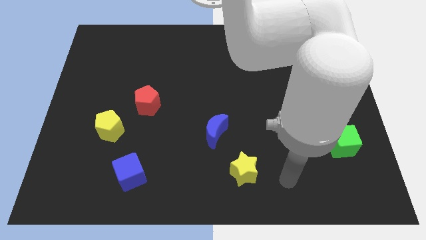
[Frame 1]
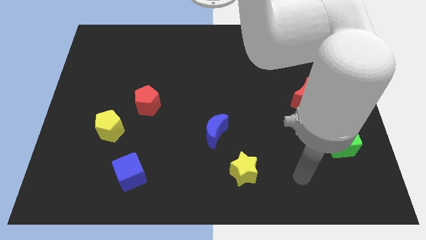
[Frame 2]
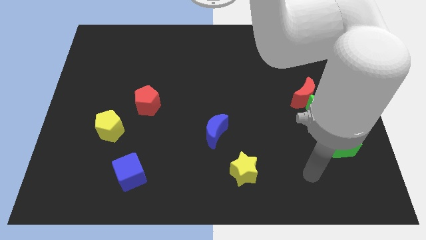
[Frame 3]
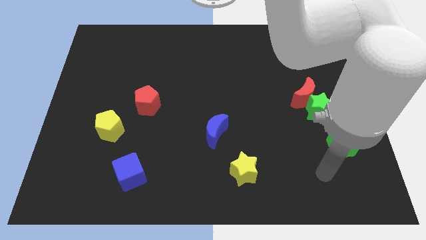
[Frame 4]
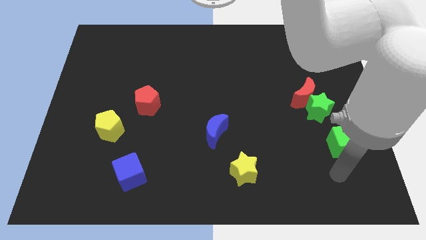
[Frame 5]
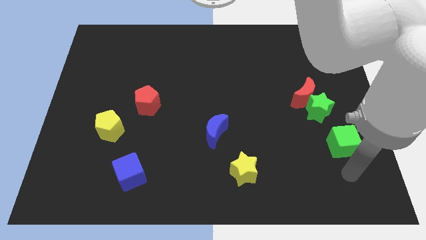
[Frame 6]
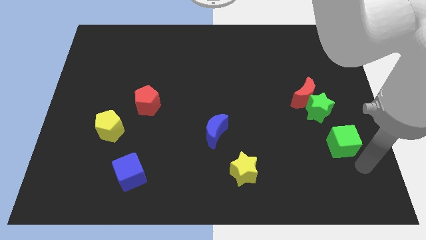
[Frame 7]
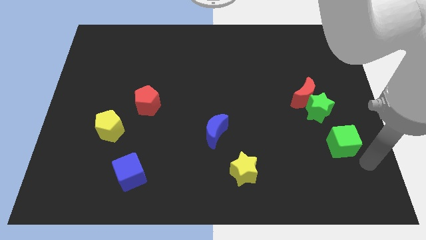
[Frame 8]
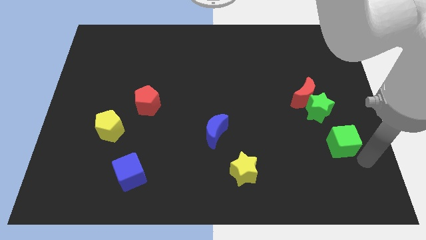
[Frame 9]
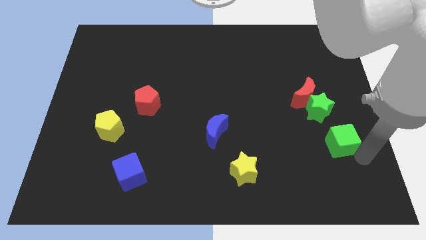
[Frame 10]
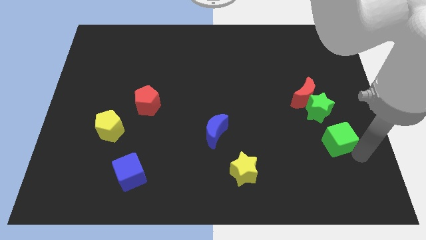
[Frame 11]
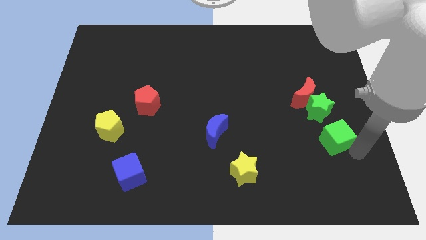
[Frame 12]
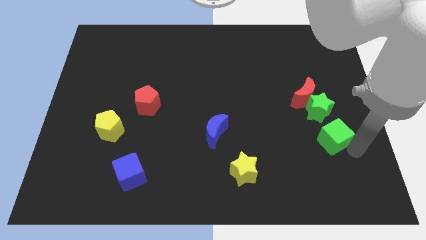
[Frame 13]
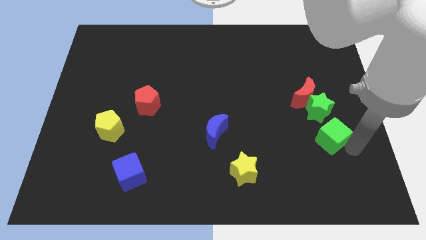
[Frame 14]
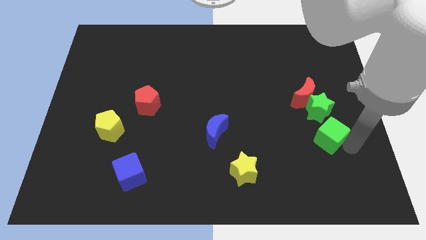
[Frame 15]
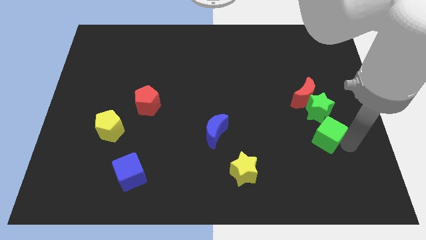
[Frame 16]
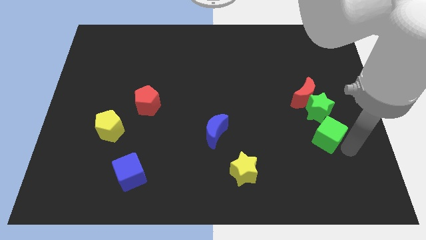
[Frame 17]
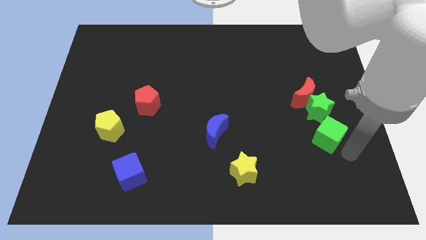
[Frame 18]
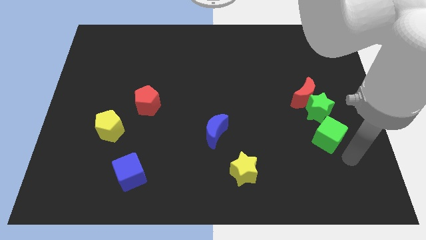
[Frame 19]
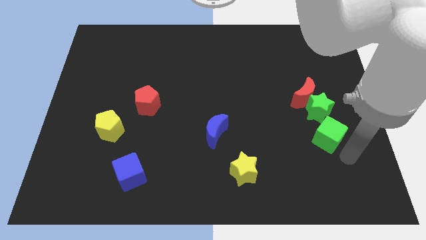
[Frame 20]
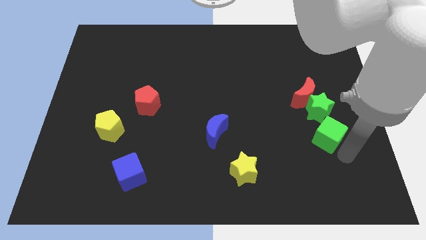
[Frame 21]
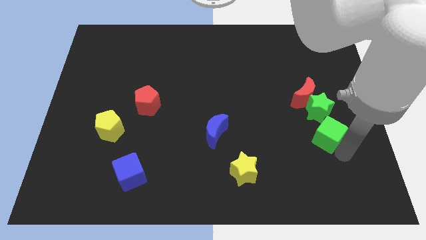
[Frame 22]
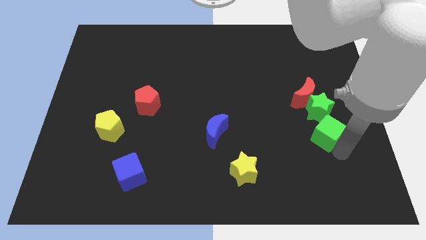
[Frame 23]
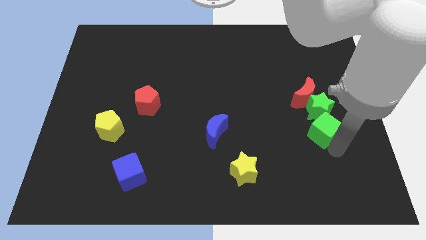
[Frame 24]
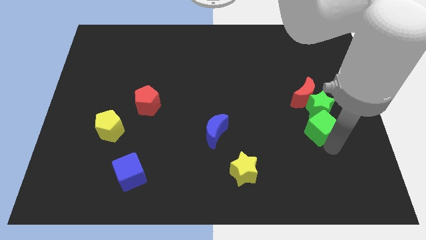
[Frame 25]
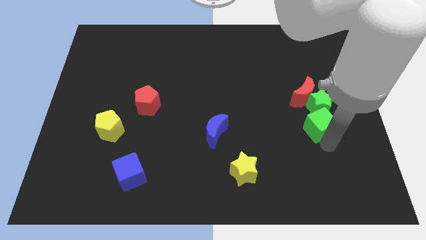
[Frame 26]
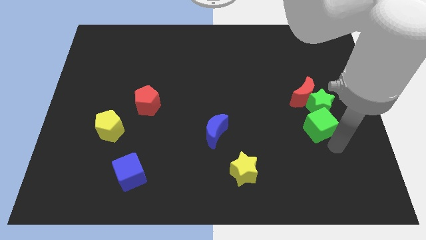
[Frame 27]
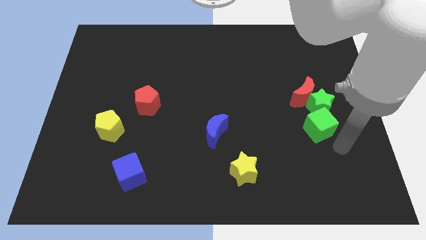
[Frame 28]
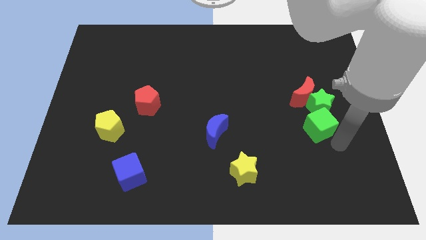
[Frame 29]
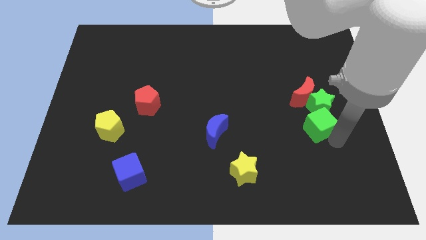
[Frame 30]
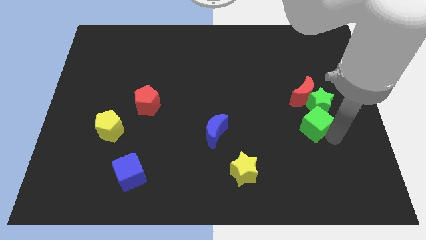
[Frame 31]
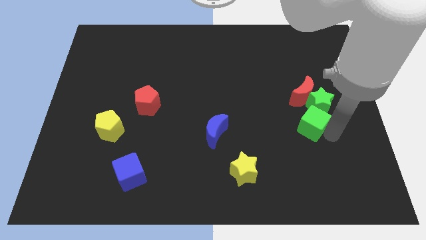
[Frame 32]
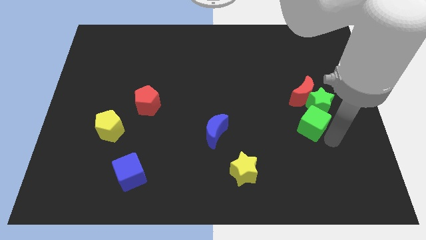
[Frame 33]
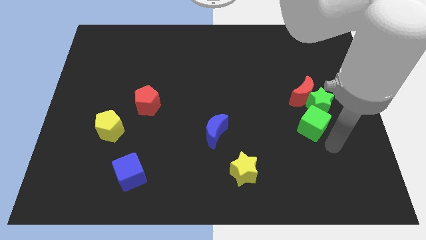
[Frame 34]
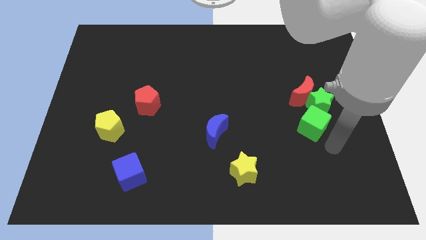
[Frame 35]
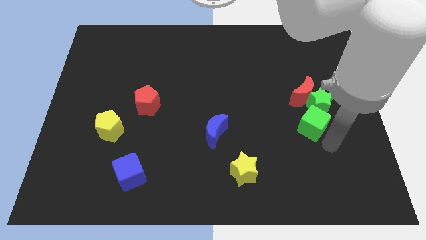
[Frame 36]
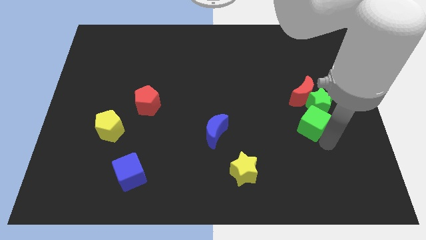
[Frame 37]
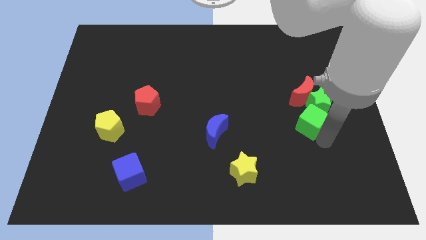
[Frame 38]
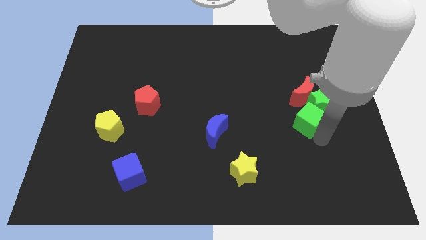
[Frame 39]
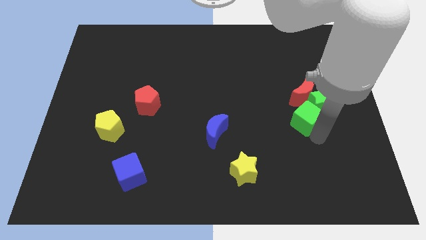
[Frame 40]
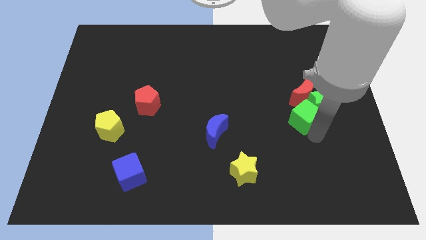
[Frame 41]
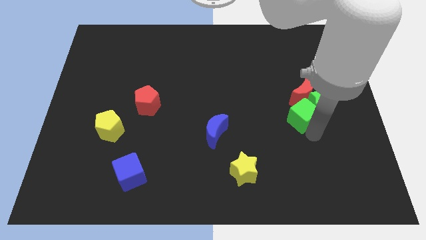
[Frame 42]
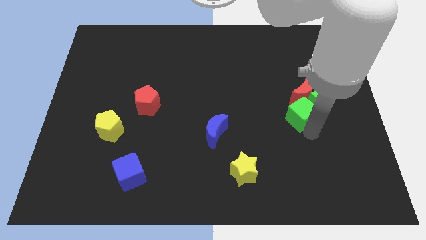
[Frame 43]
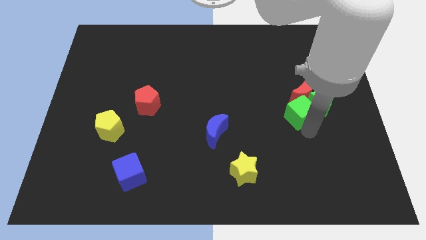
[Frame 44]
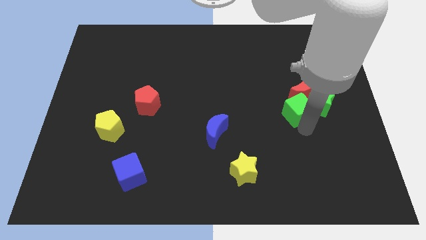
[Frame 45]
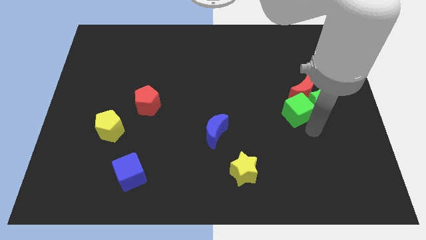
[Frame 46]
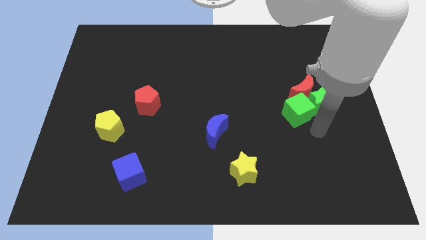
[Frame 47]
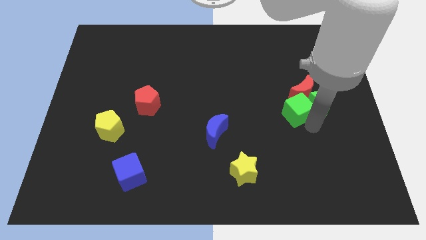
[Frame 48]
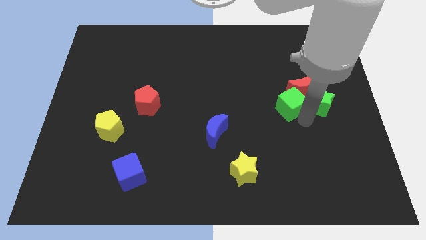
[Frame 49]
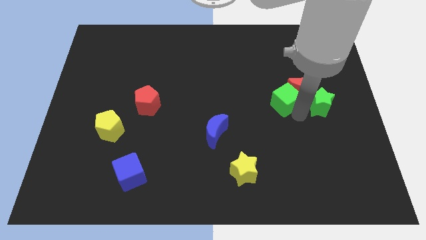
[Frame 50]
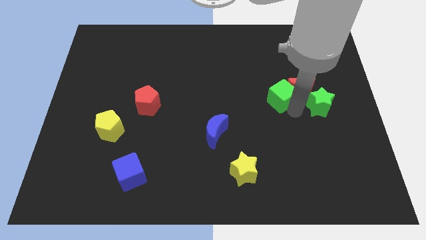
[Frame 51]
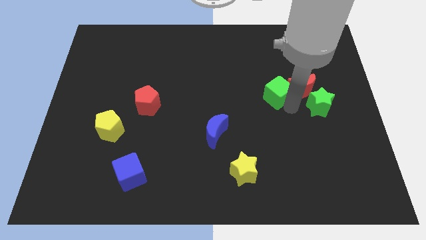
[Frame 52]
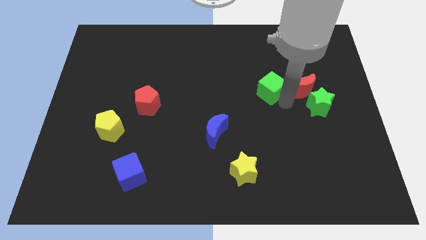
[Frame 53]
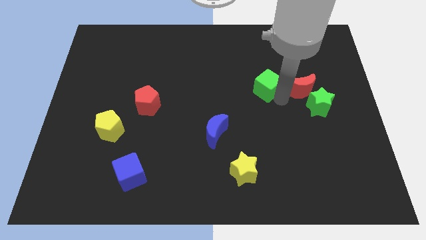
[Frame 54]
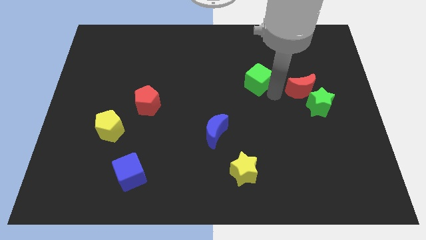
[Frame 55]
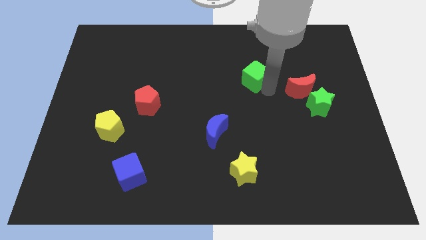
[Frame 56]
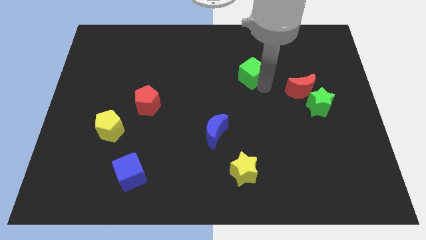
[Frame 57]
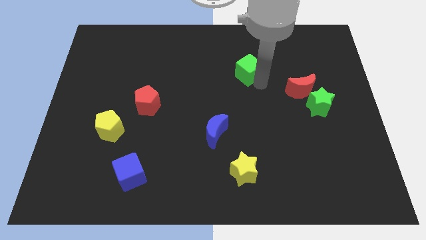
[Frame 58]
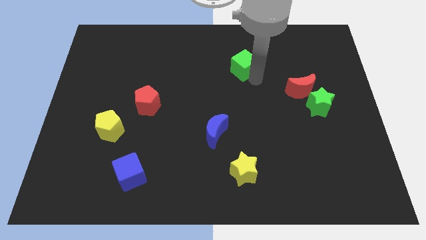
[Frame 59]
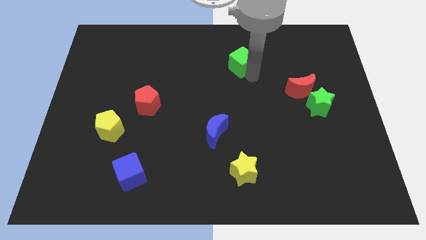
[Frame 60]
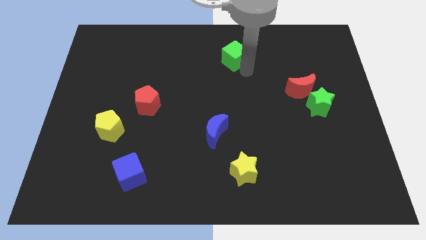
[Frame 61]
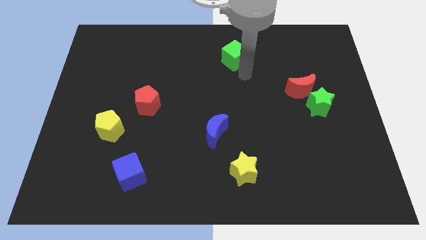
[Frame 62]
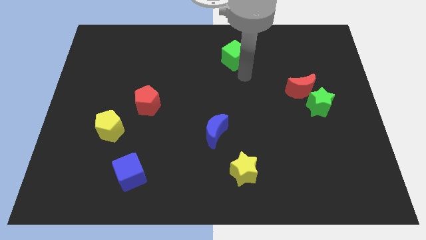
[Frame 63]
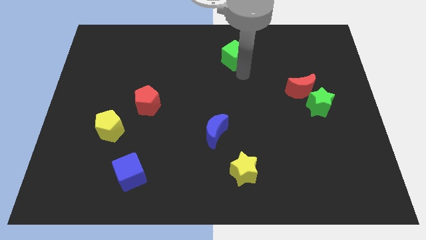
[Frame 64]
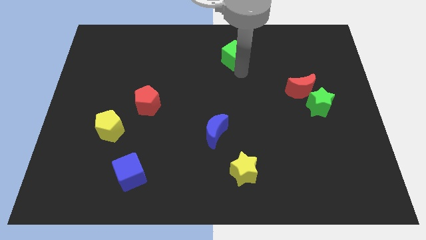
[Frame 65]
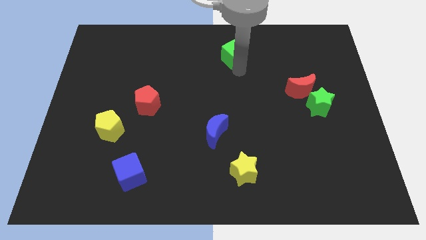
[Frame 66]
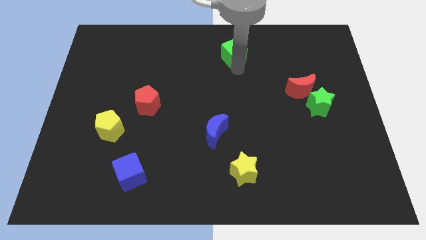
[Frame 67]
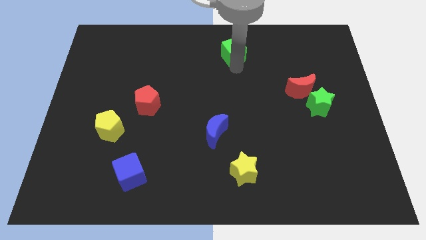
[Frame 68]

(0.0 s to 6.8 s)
push the green cube to the top side
